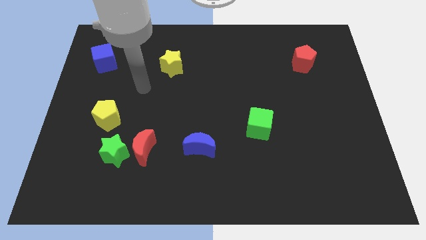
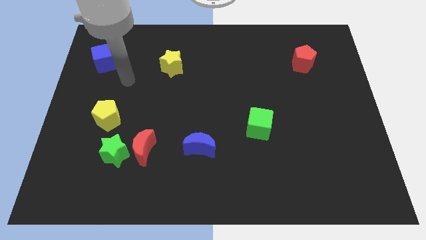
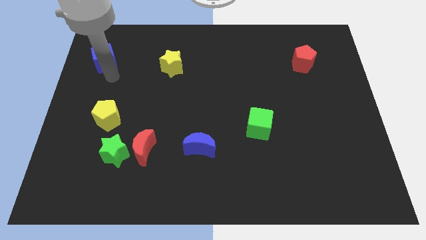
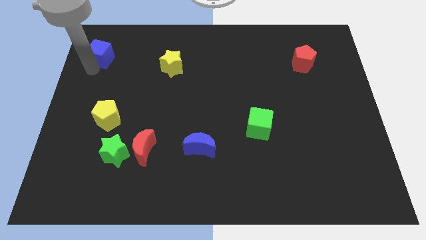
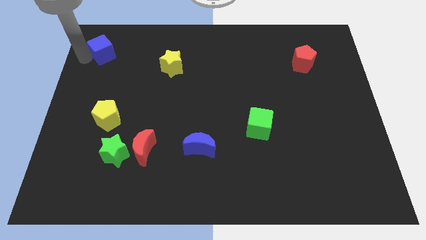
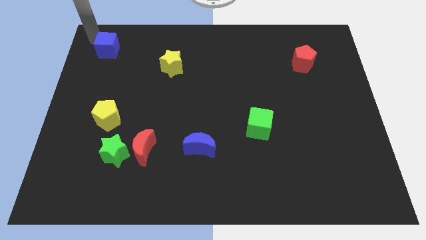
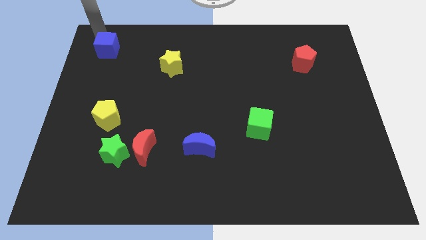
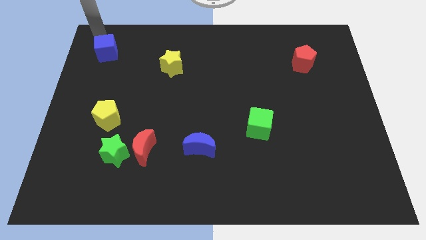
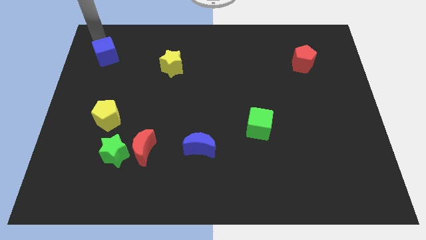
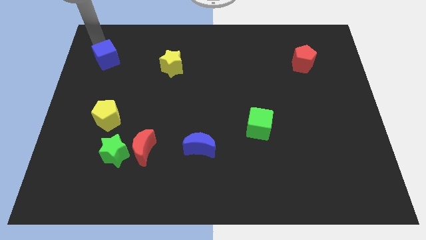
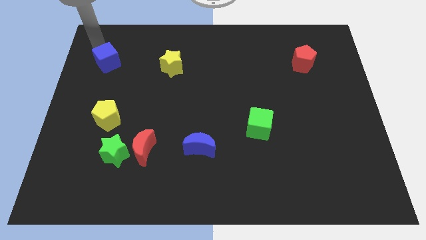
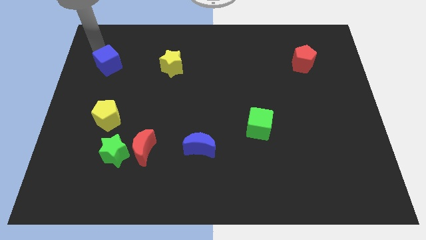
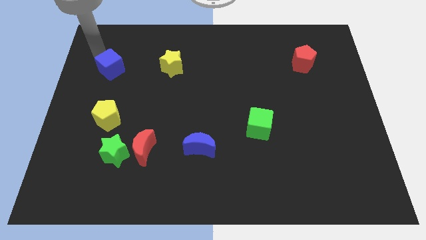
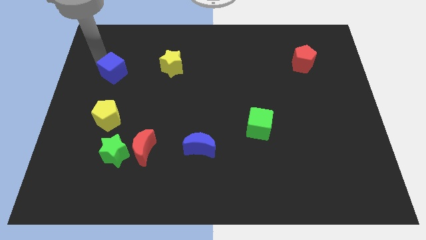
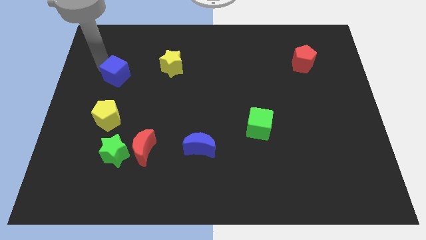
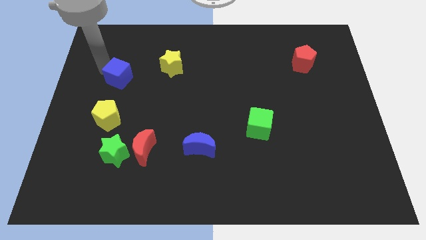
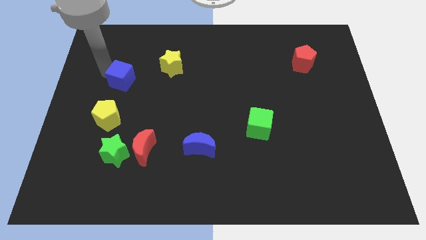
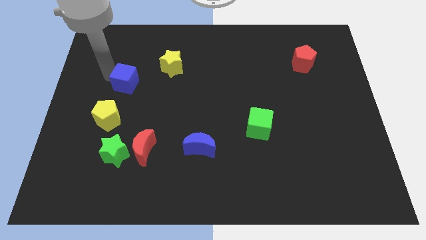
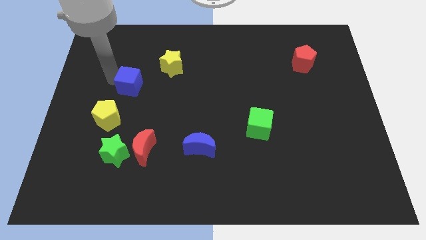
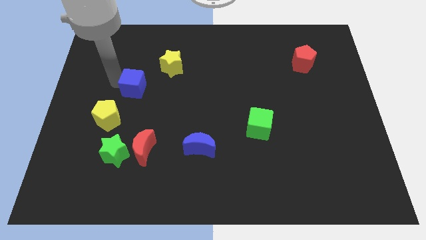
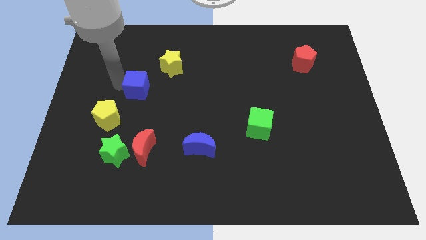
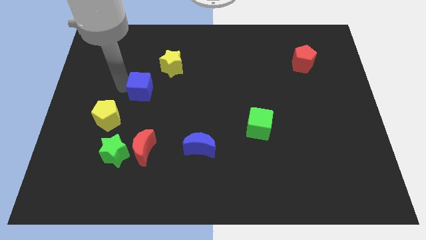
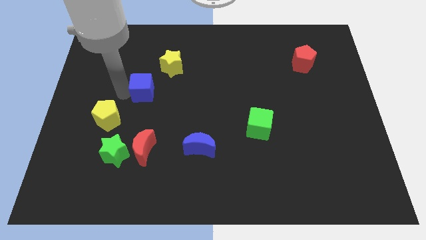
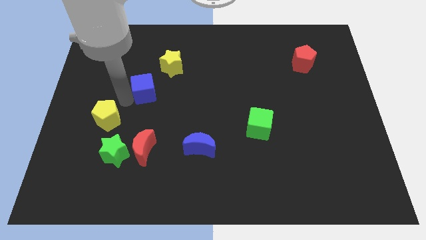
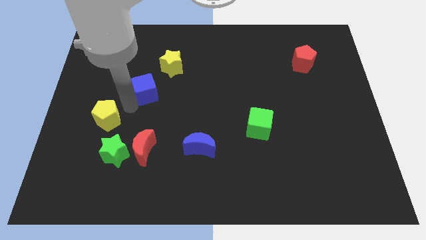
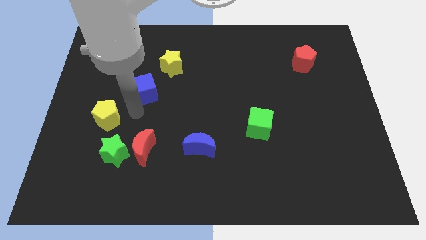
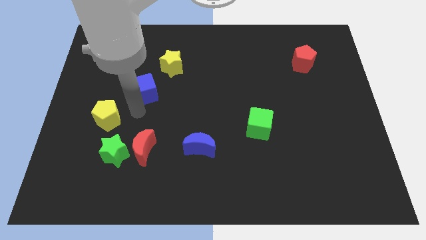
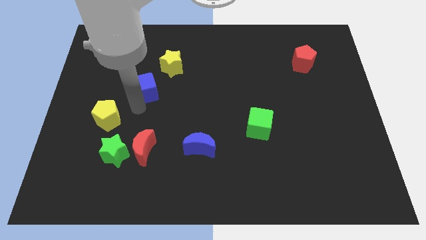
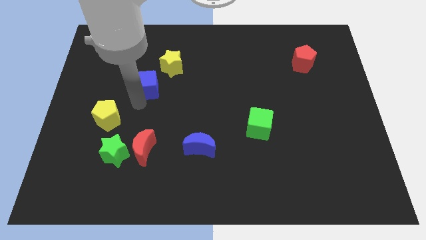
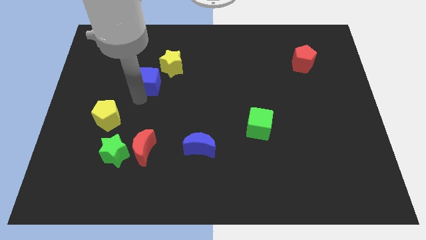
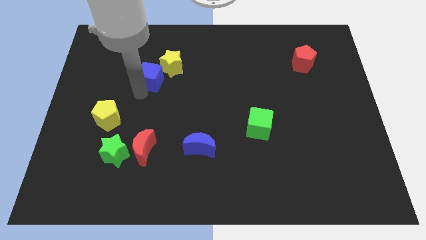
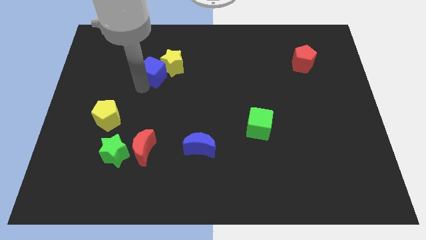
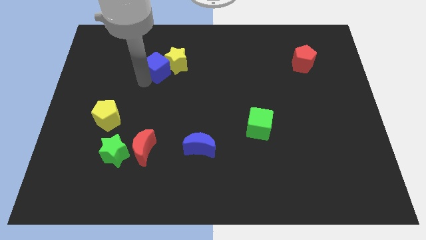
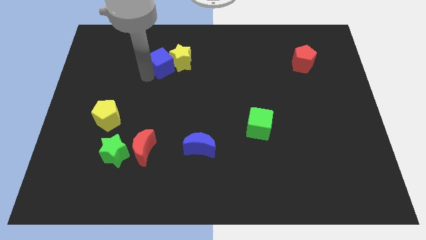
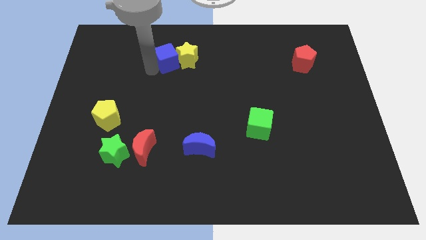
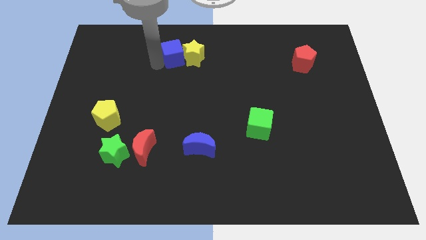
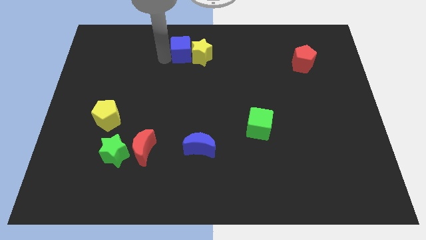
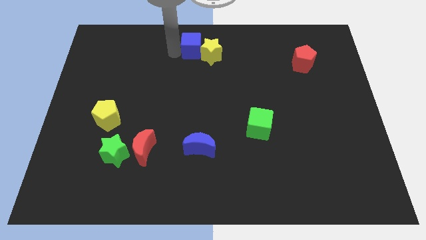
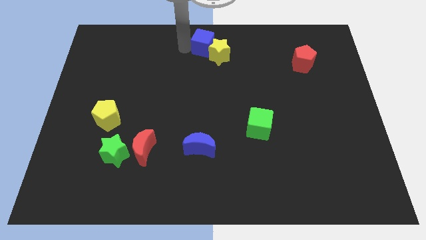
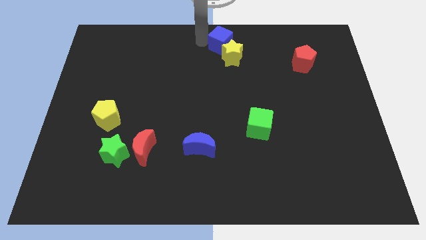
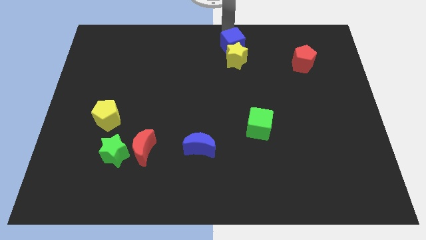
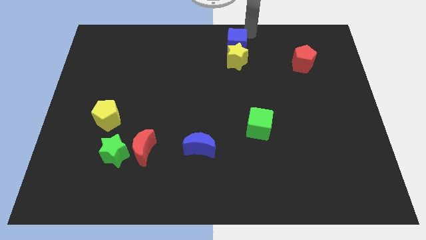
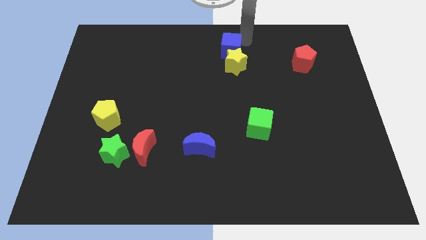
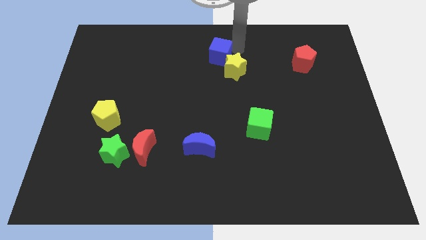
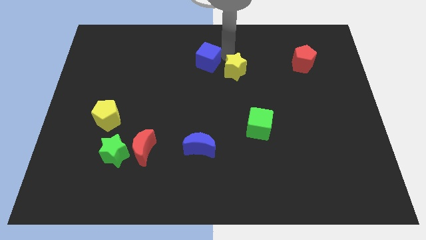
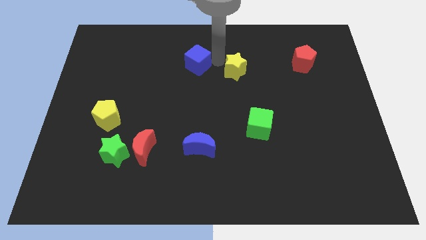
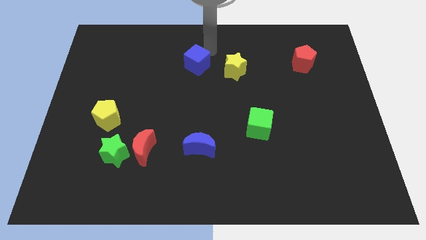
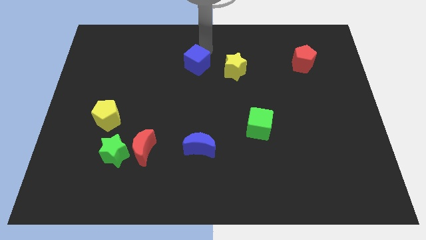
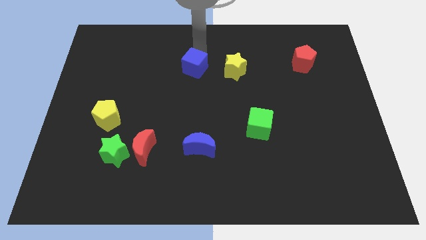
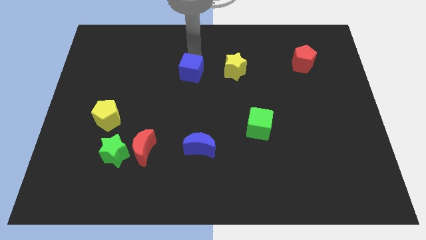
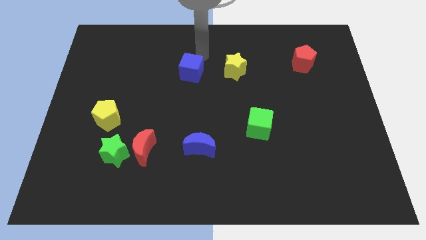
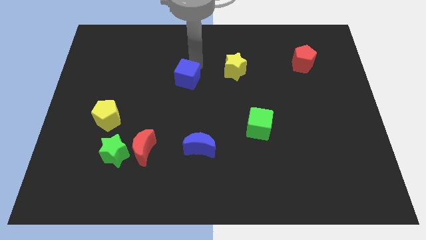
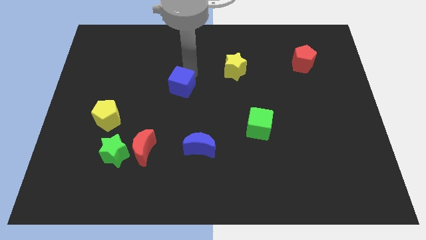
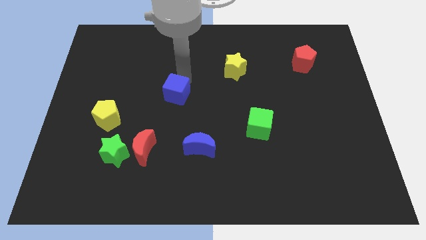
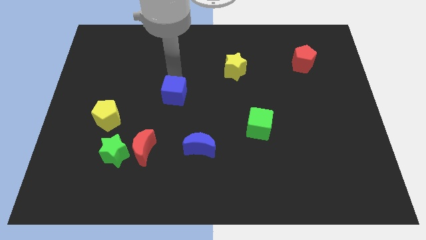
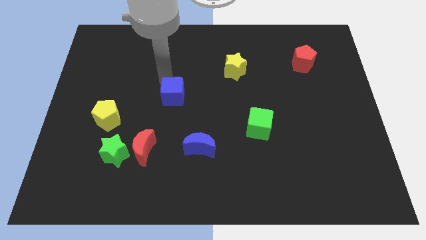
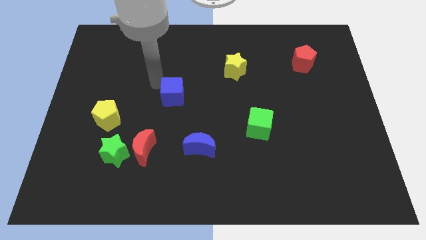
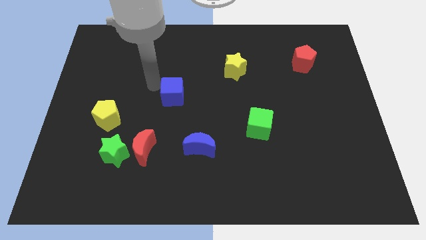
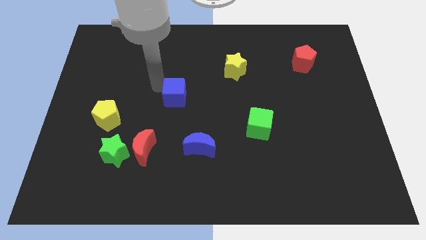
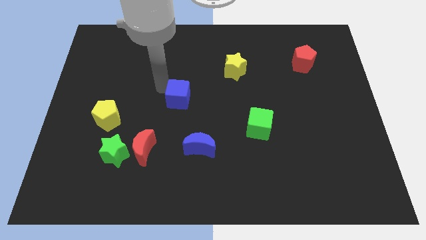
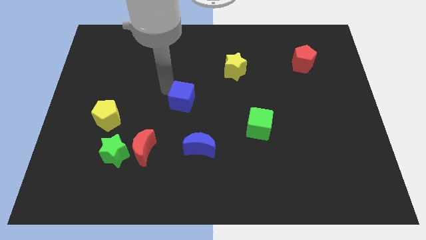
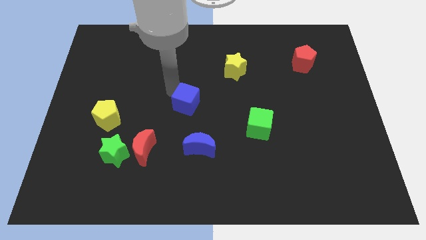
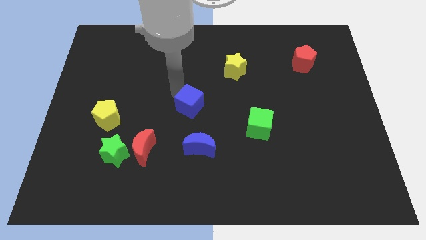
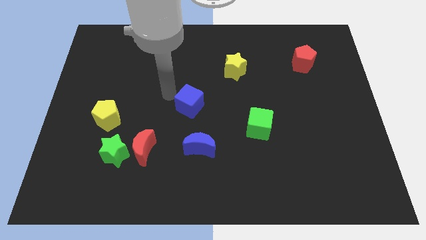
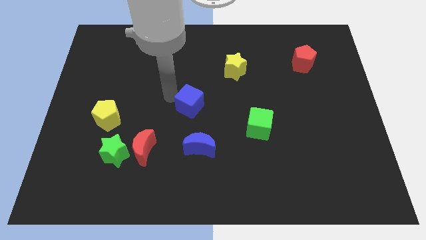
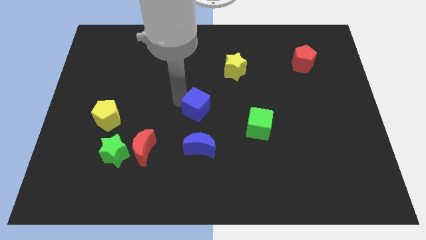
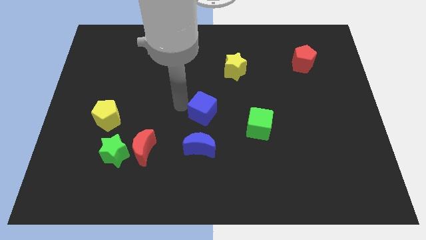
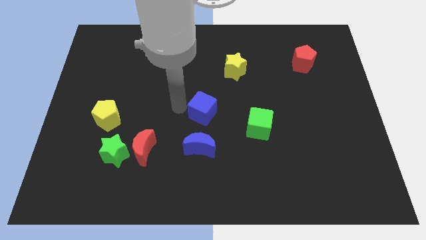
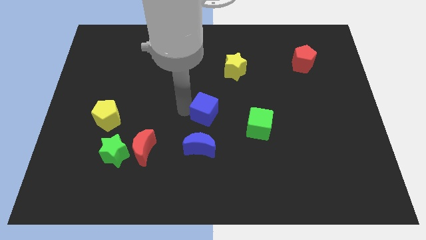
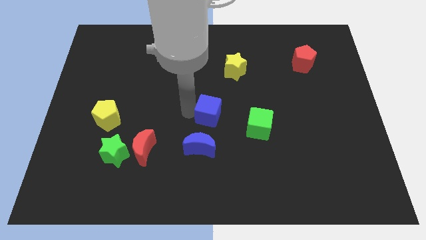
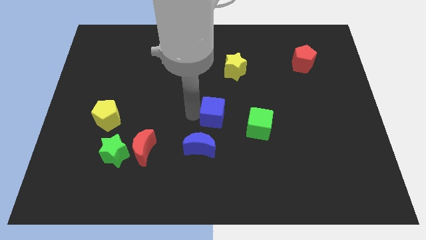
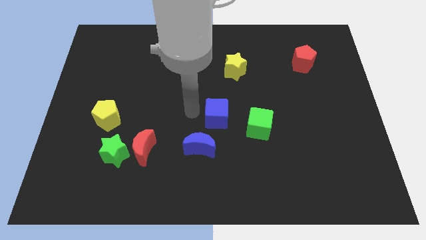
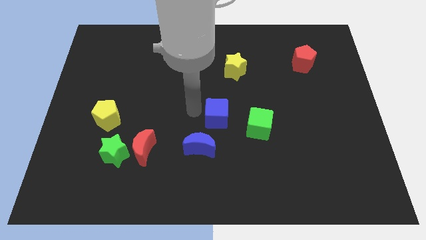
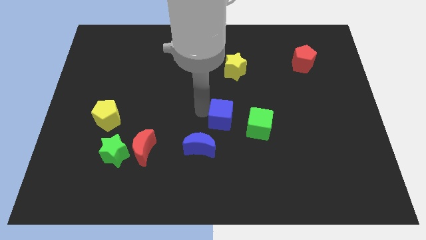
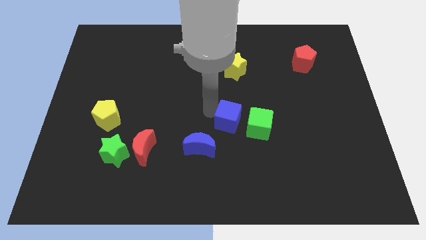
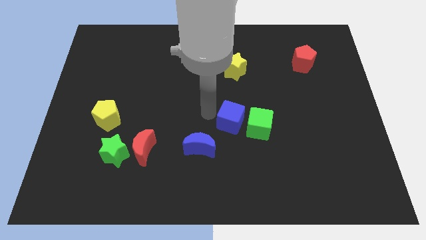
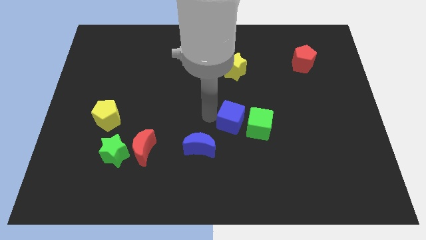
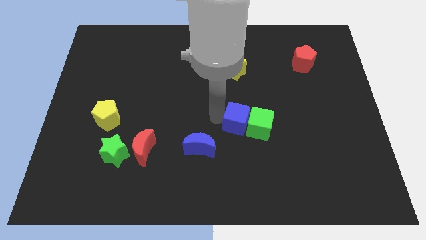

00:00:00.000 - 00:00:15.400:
slide the blue cube next to the green cube
